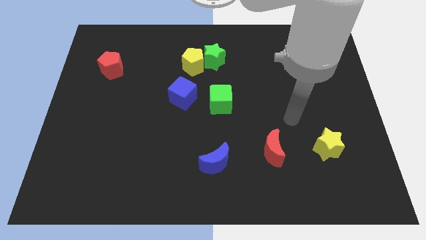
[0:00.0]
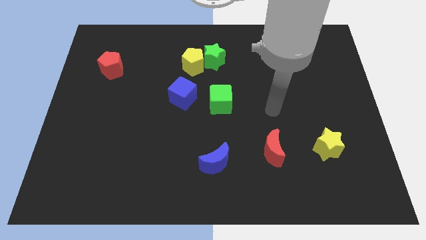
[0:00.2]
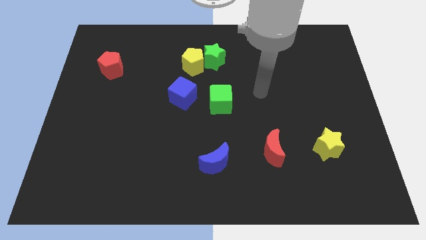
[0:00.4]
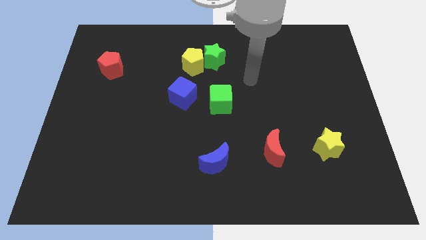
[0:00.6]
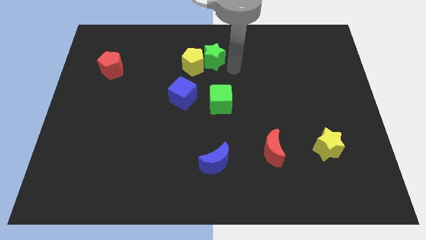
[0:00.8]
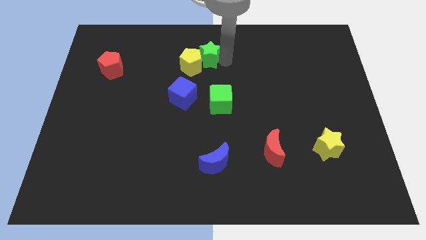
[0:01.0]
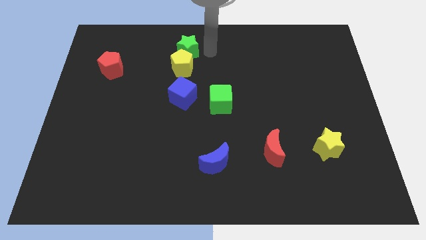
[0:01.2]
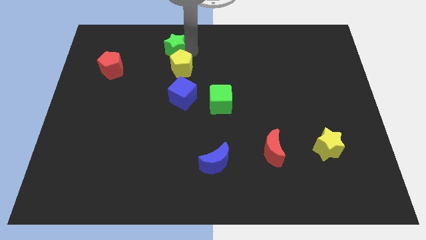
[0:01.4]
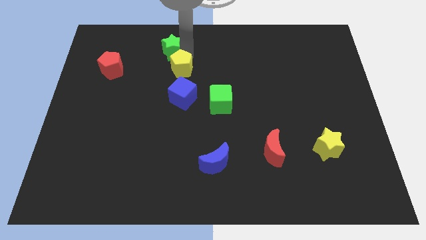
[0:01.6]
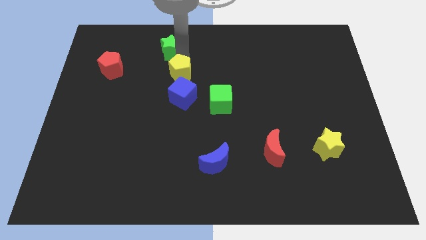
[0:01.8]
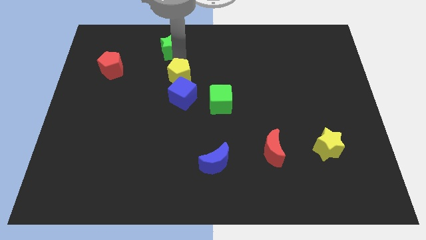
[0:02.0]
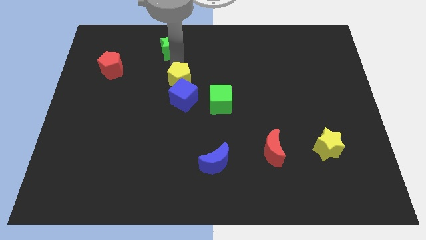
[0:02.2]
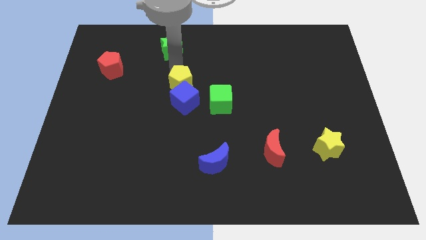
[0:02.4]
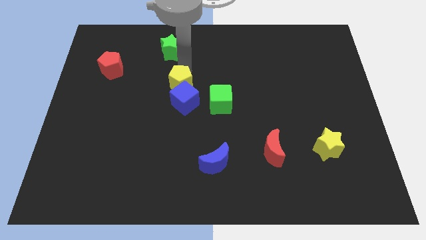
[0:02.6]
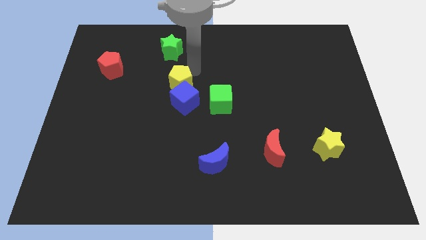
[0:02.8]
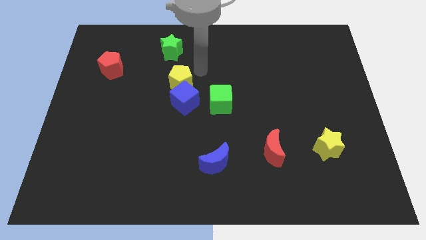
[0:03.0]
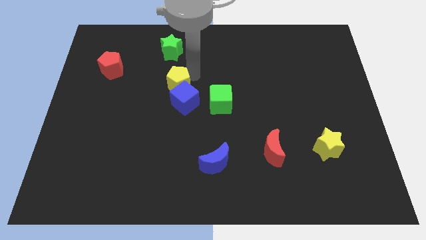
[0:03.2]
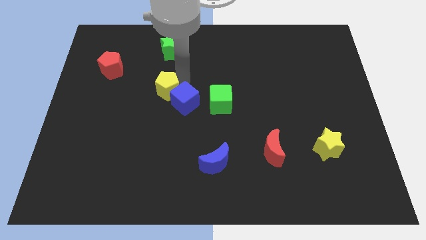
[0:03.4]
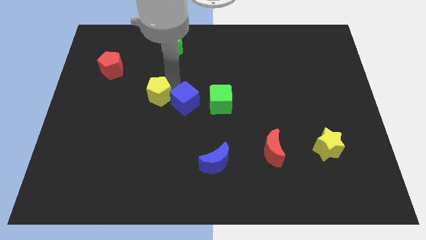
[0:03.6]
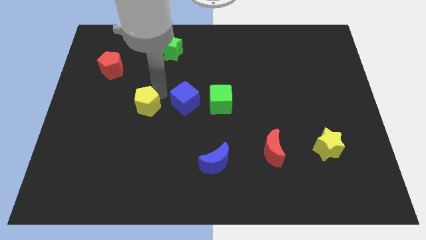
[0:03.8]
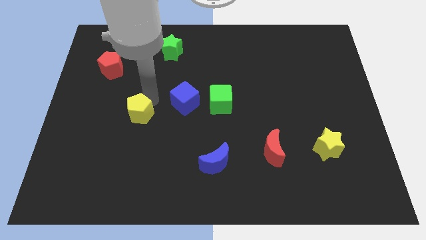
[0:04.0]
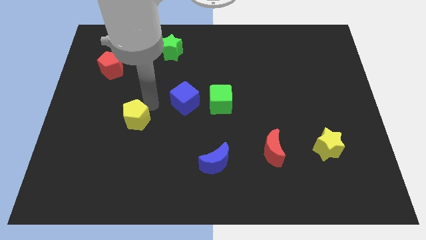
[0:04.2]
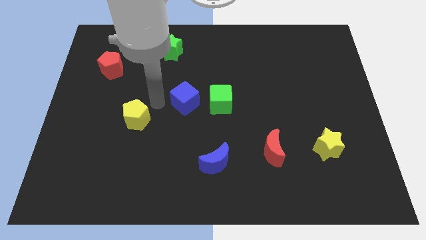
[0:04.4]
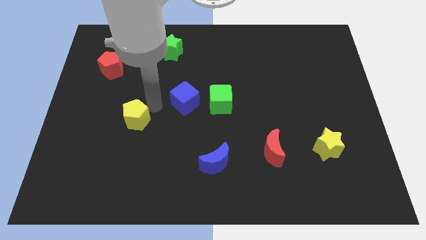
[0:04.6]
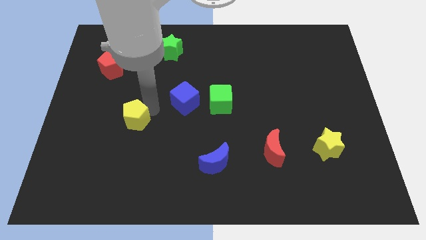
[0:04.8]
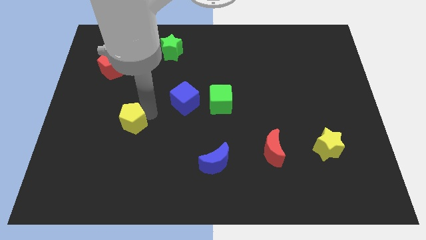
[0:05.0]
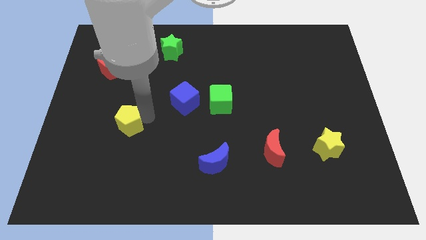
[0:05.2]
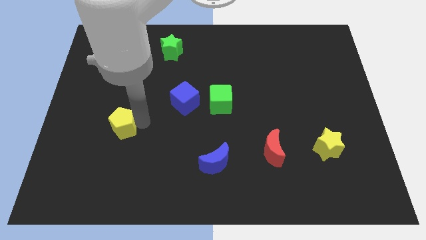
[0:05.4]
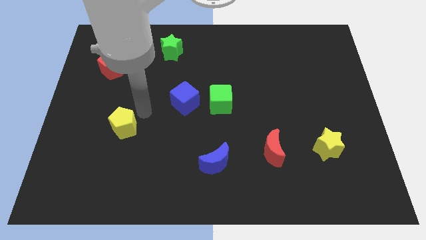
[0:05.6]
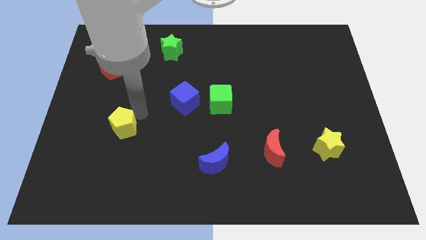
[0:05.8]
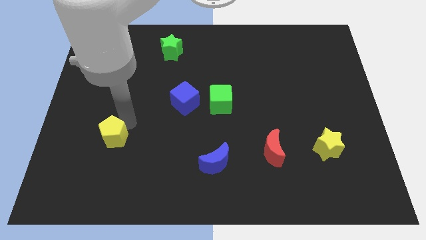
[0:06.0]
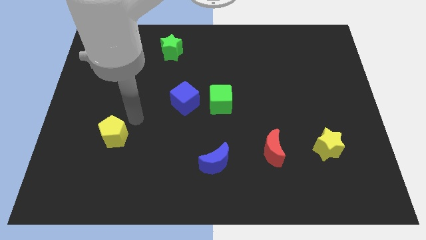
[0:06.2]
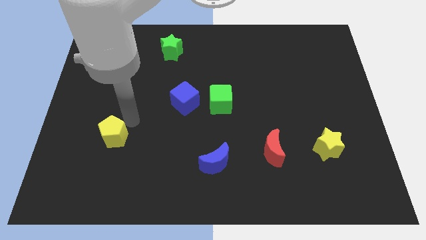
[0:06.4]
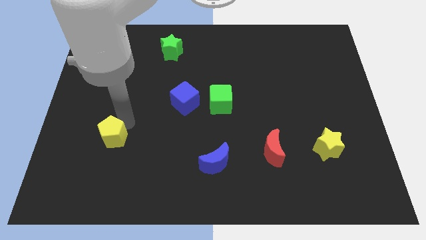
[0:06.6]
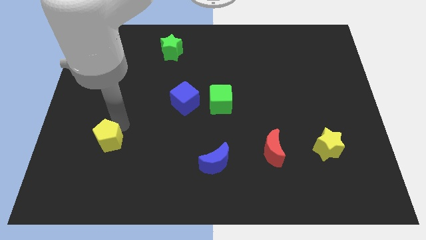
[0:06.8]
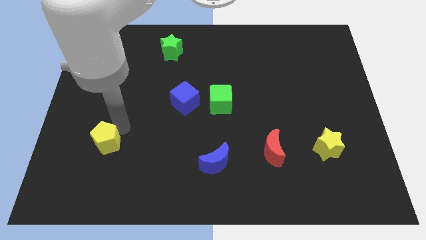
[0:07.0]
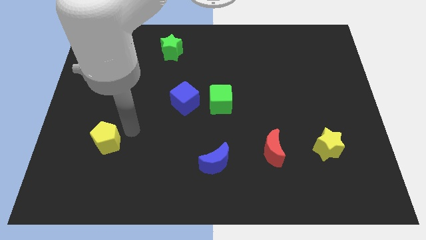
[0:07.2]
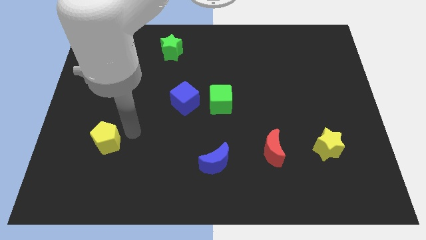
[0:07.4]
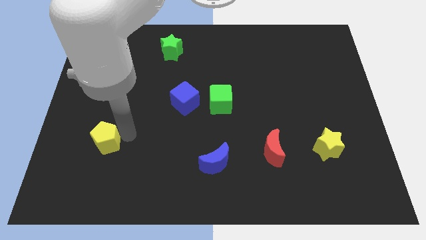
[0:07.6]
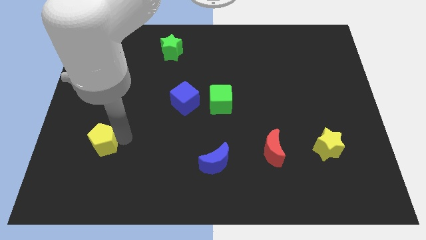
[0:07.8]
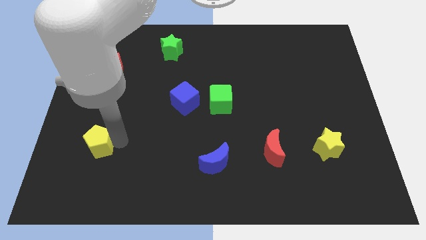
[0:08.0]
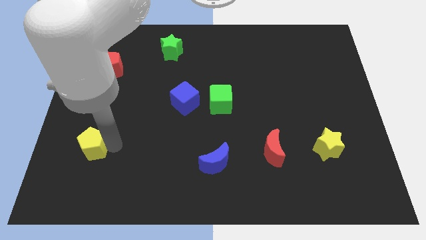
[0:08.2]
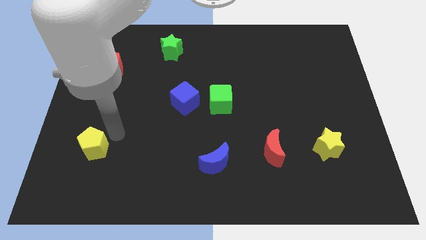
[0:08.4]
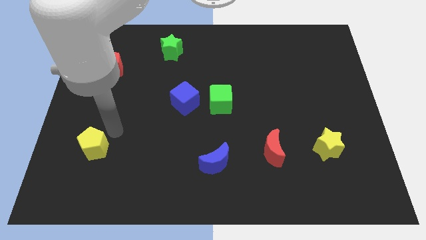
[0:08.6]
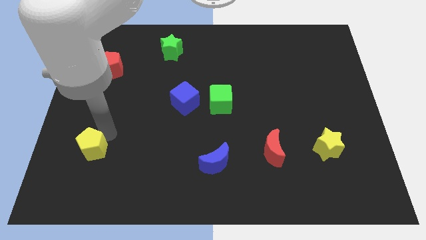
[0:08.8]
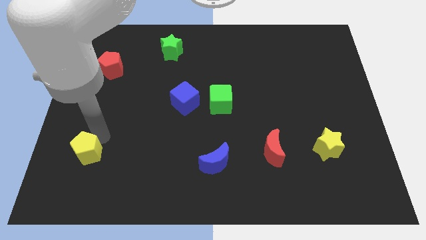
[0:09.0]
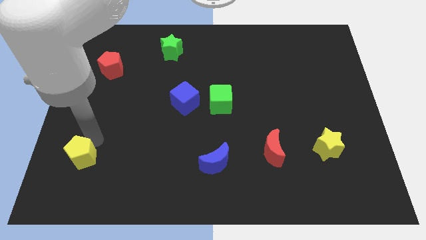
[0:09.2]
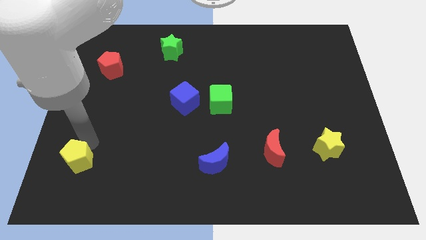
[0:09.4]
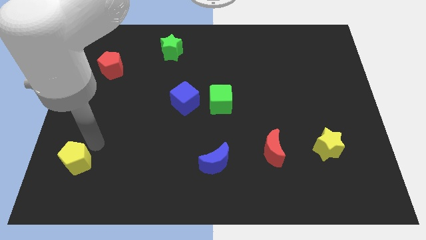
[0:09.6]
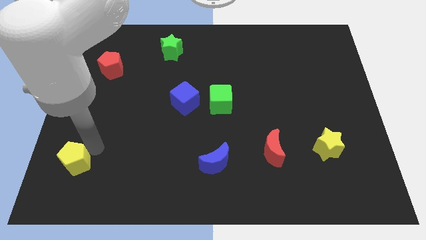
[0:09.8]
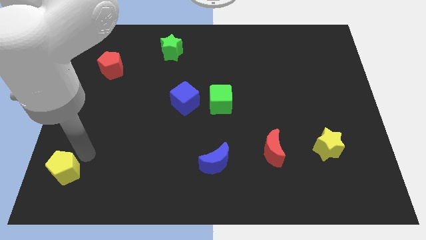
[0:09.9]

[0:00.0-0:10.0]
put the yellow pentagon to the bottom left of the board

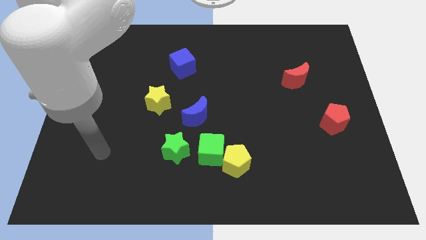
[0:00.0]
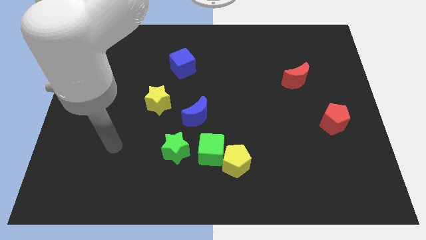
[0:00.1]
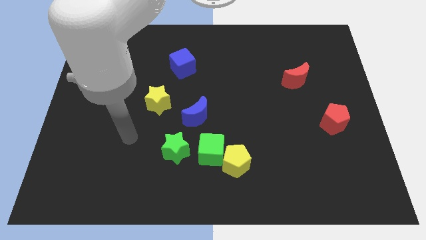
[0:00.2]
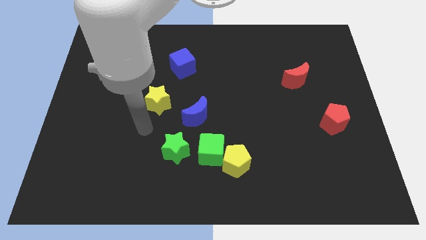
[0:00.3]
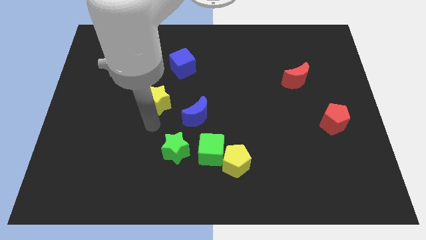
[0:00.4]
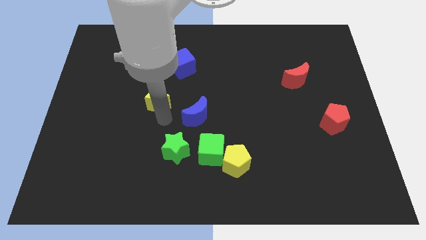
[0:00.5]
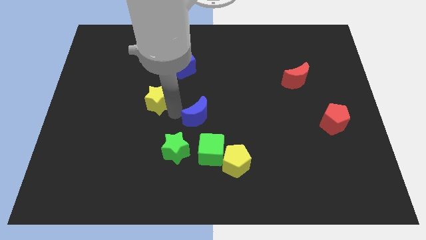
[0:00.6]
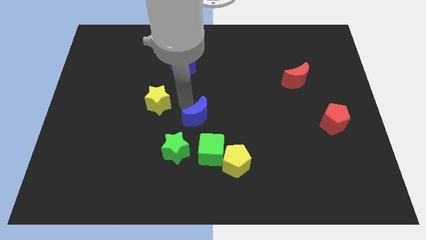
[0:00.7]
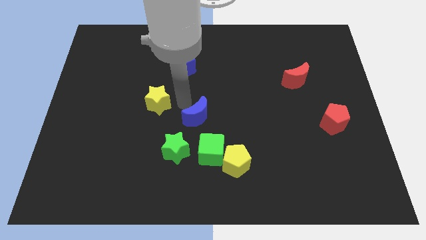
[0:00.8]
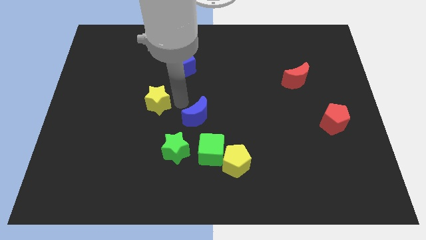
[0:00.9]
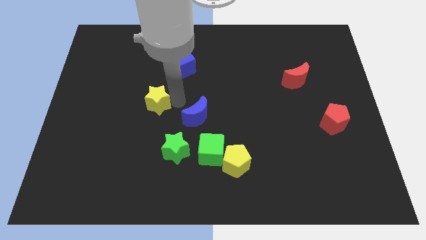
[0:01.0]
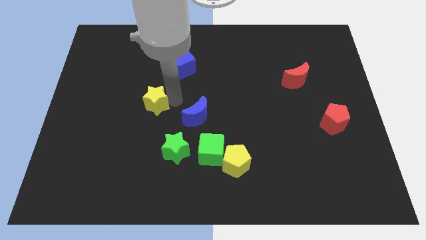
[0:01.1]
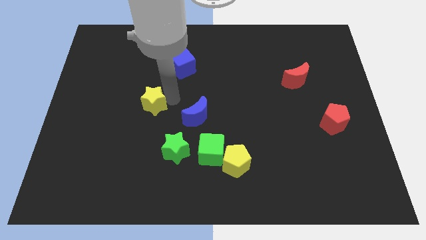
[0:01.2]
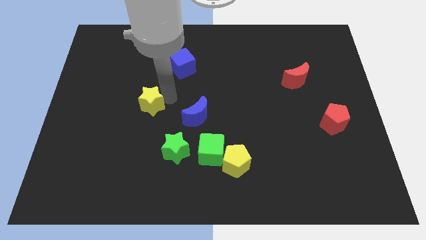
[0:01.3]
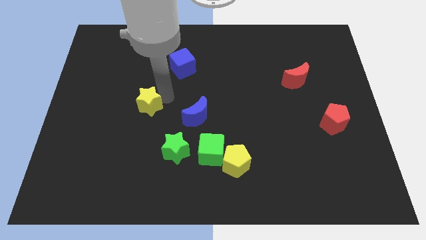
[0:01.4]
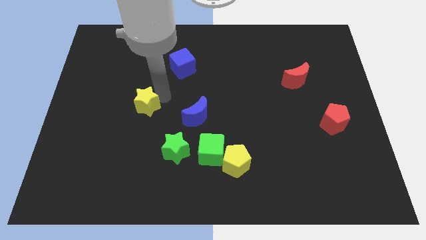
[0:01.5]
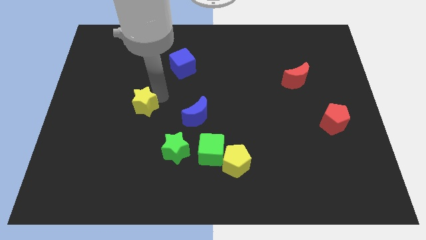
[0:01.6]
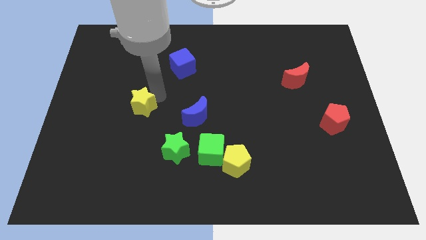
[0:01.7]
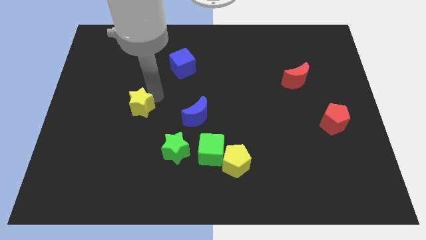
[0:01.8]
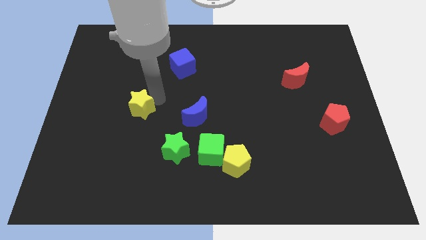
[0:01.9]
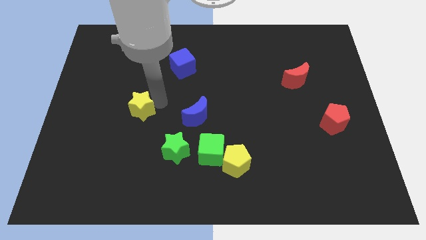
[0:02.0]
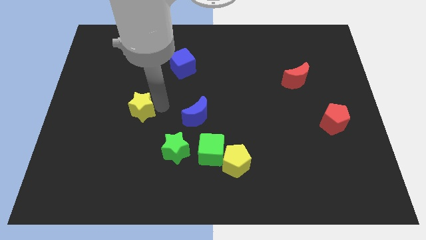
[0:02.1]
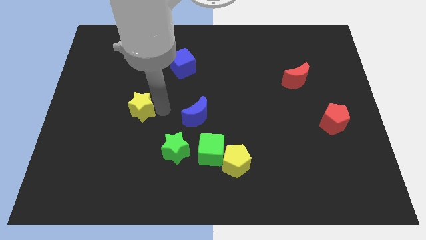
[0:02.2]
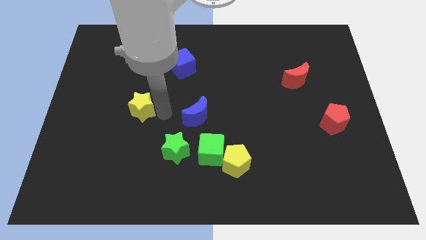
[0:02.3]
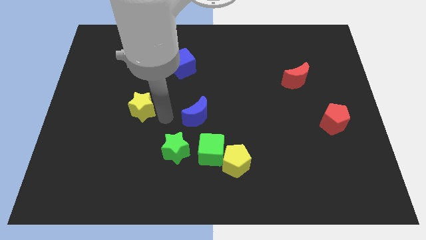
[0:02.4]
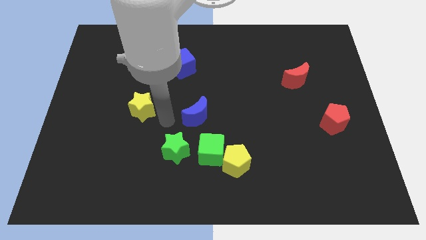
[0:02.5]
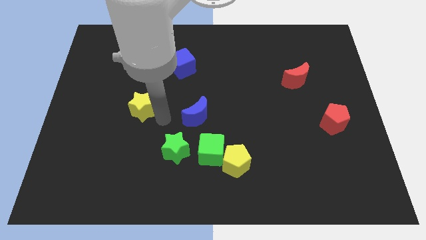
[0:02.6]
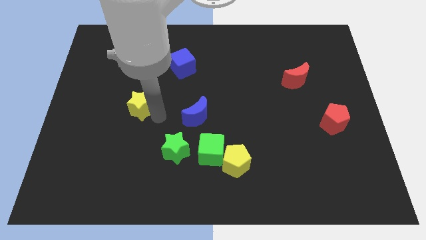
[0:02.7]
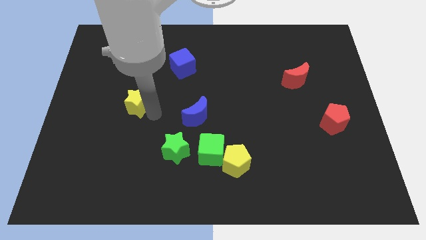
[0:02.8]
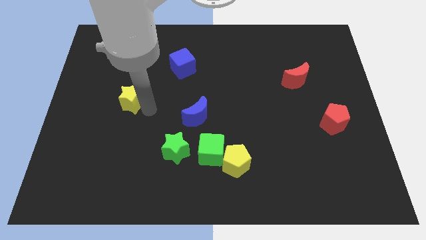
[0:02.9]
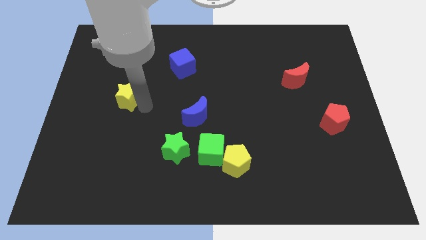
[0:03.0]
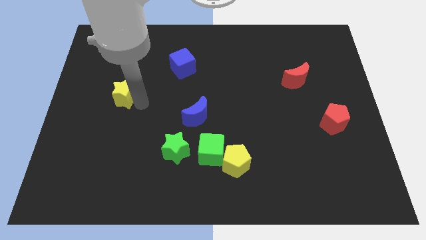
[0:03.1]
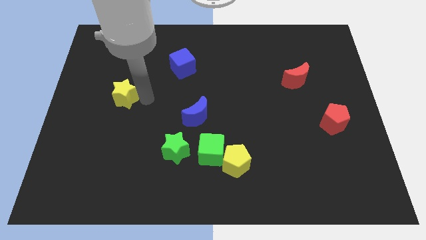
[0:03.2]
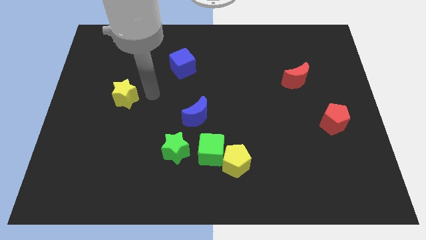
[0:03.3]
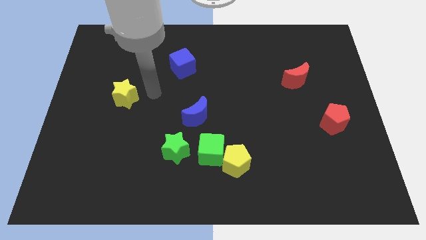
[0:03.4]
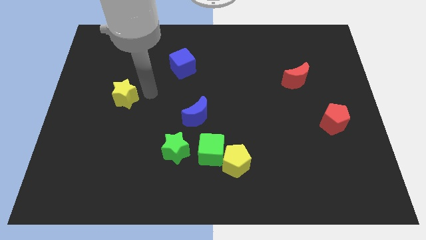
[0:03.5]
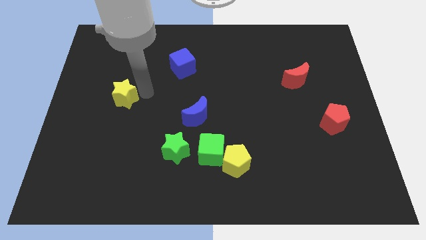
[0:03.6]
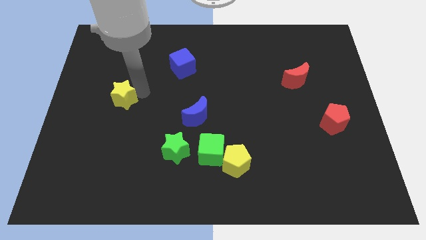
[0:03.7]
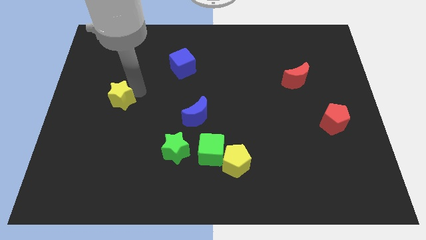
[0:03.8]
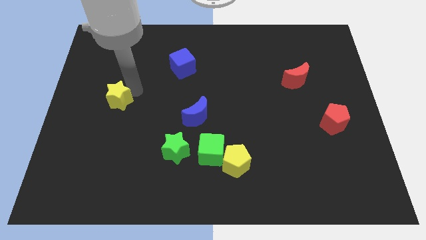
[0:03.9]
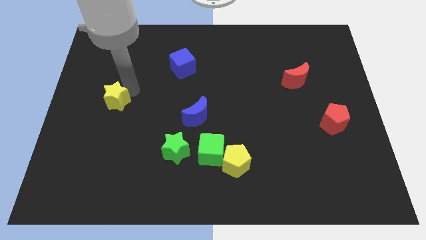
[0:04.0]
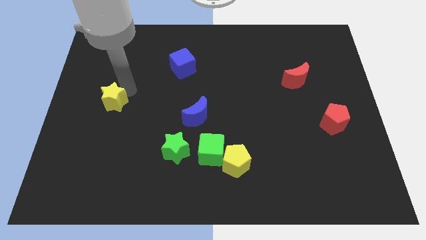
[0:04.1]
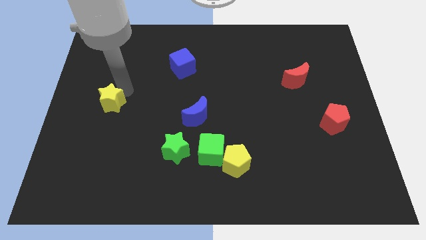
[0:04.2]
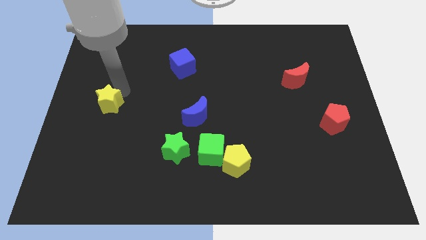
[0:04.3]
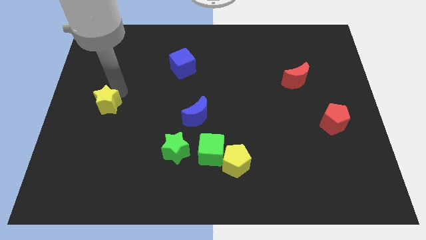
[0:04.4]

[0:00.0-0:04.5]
push the yellow star to the center left
